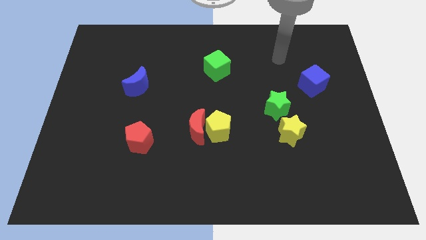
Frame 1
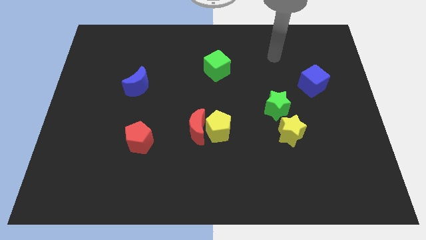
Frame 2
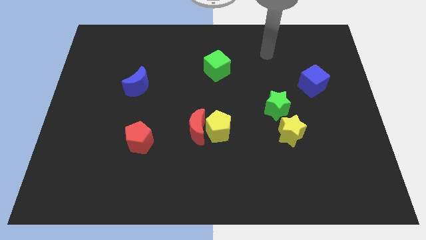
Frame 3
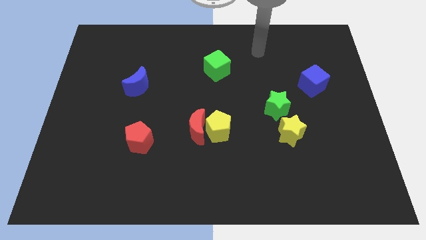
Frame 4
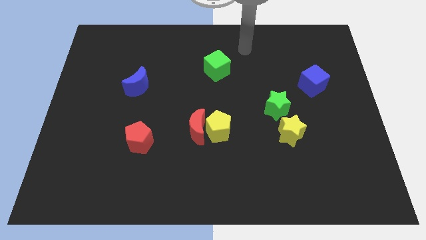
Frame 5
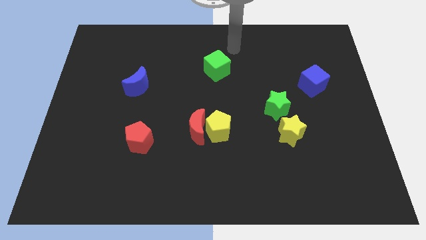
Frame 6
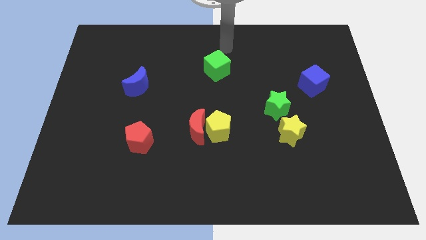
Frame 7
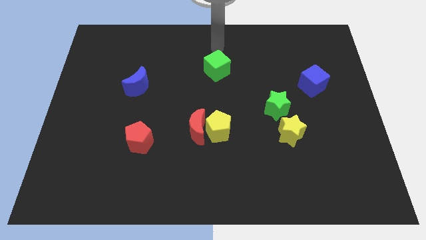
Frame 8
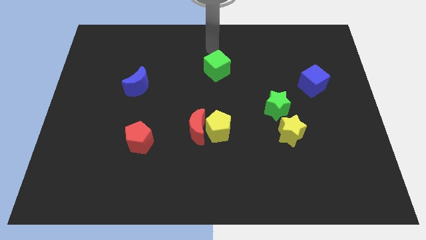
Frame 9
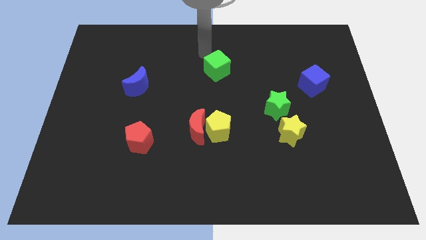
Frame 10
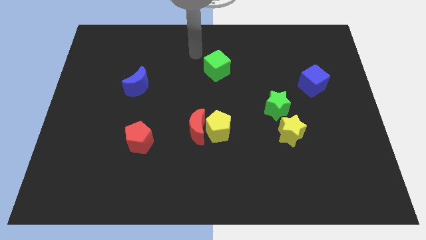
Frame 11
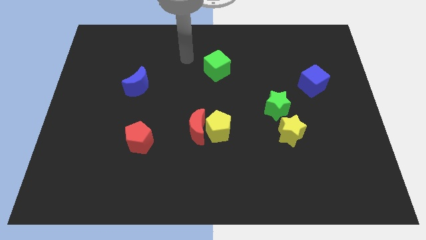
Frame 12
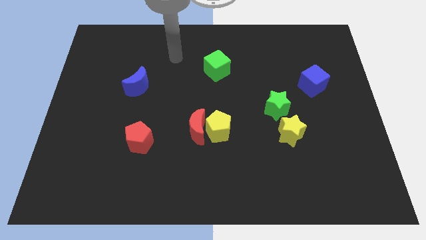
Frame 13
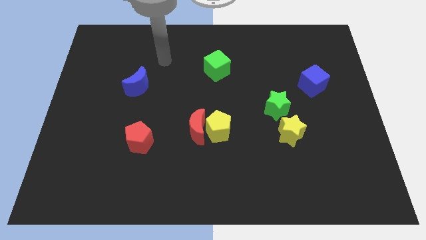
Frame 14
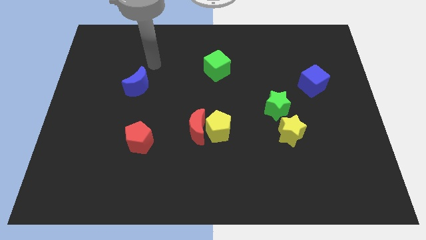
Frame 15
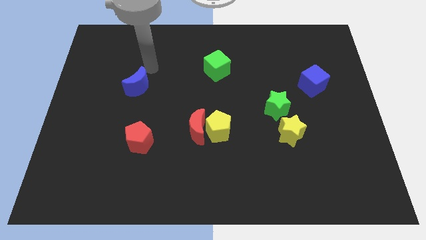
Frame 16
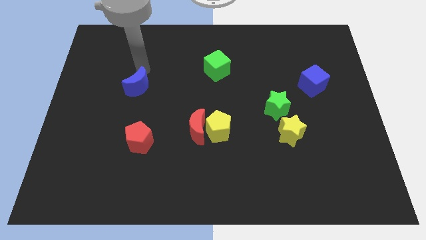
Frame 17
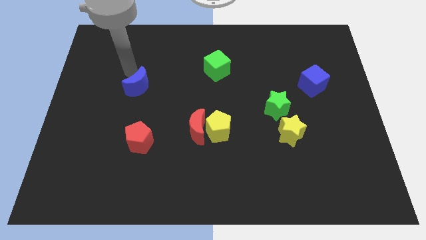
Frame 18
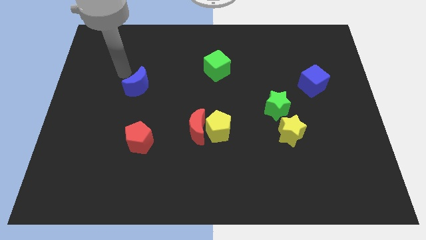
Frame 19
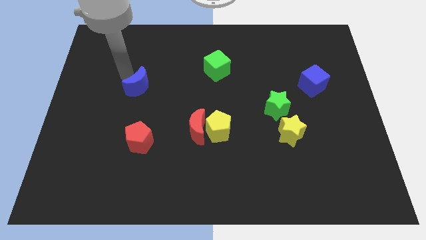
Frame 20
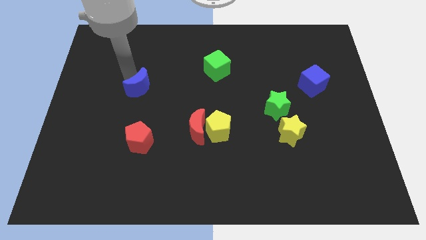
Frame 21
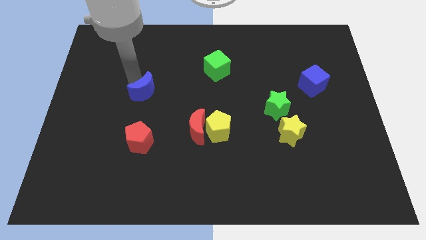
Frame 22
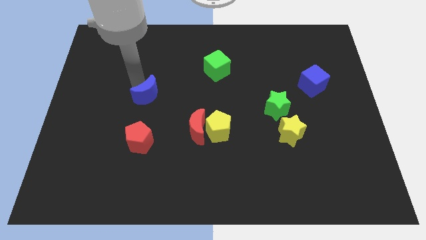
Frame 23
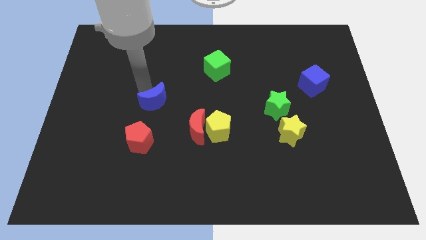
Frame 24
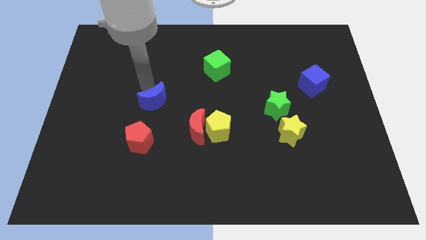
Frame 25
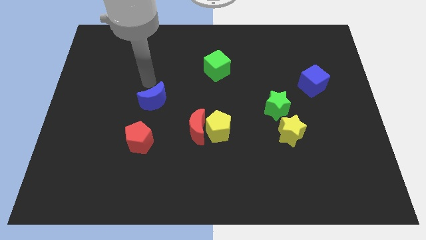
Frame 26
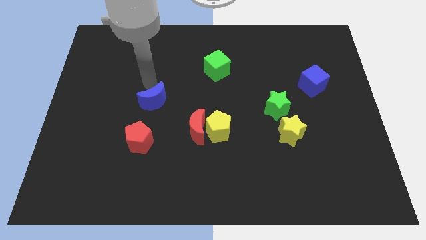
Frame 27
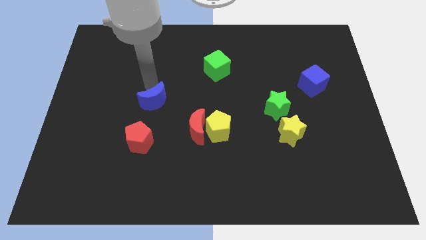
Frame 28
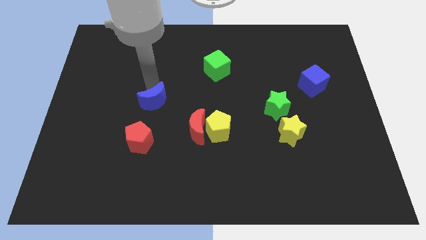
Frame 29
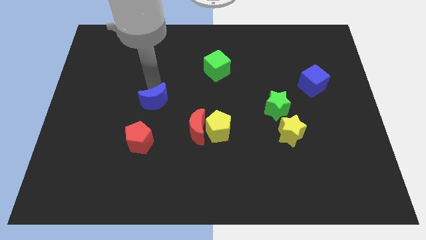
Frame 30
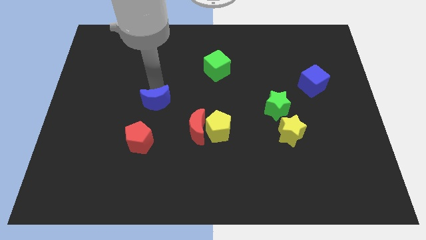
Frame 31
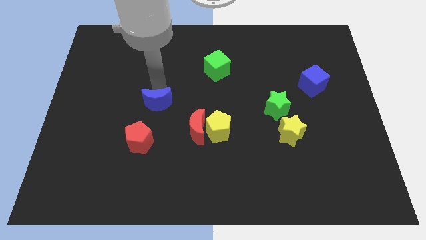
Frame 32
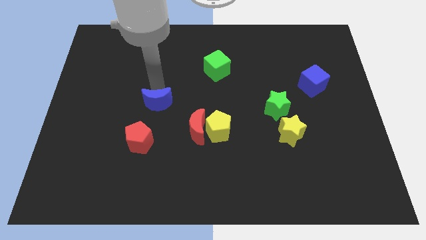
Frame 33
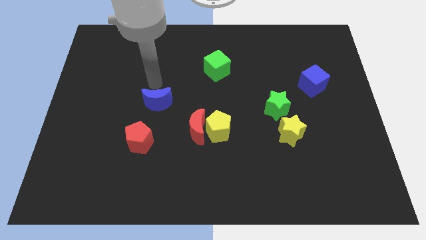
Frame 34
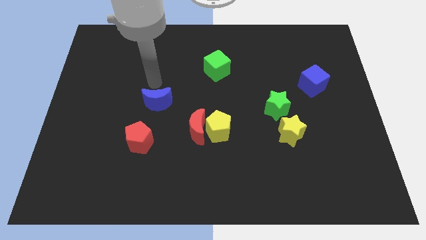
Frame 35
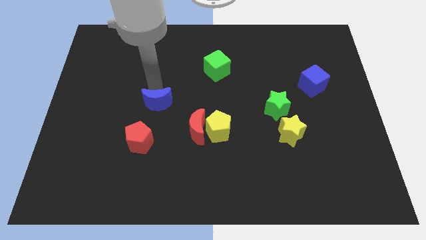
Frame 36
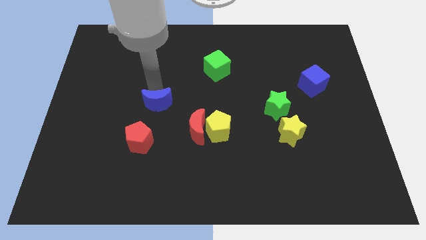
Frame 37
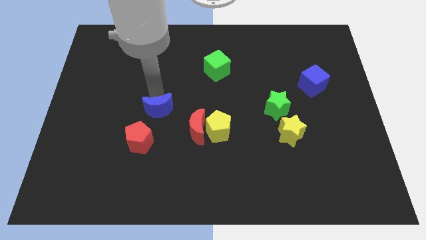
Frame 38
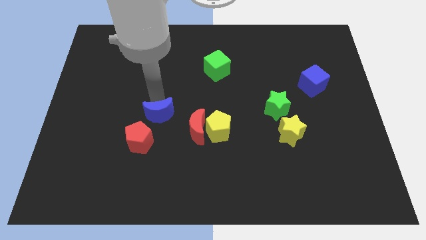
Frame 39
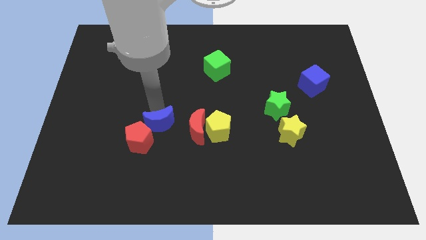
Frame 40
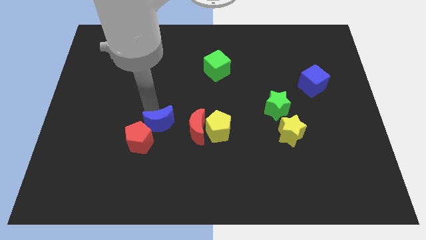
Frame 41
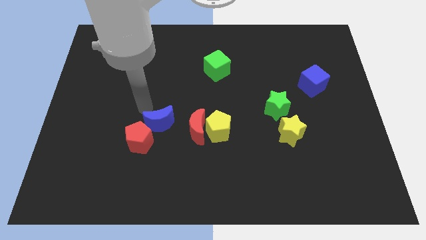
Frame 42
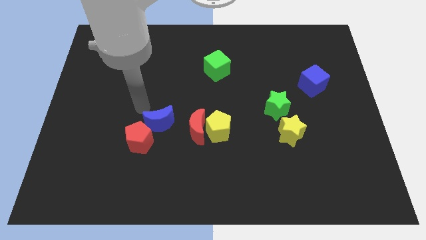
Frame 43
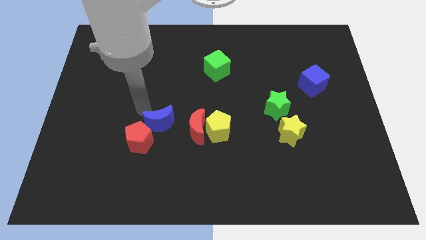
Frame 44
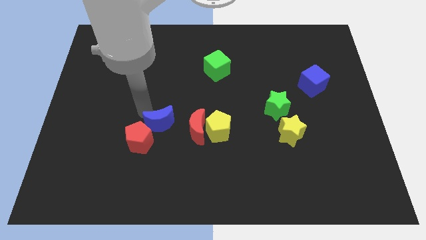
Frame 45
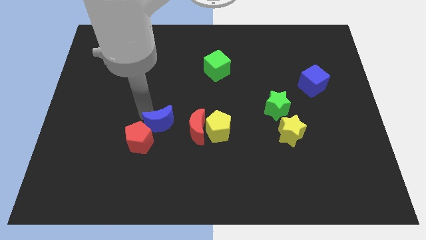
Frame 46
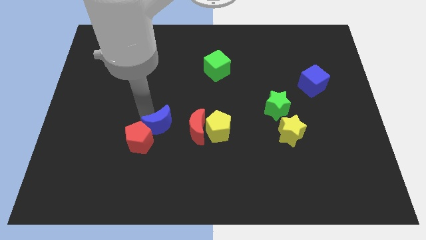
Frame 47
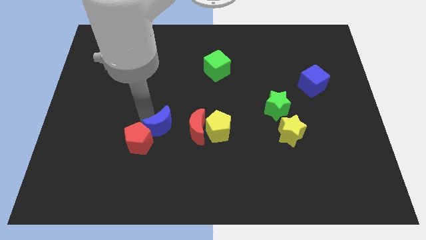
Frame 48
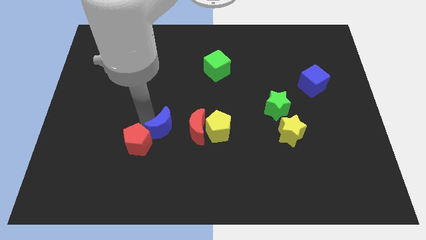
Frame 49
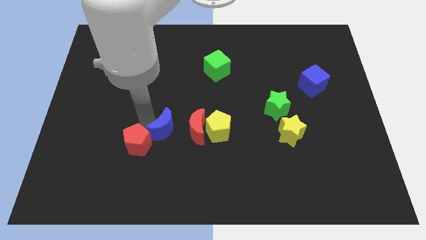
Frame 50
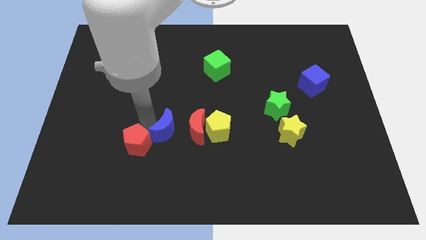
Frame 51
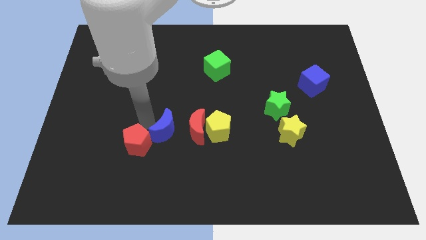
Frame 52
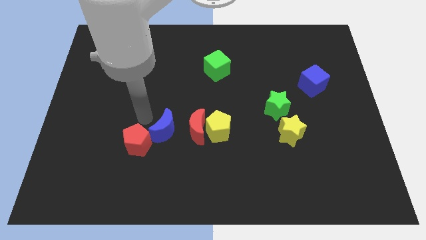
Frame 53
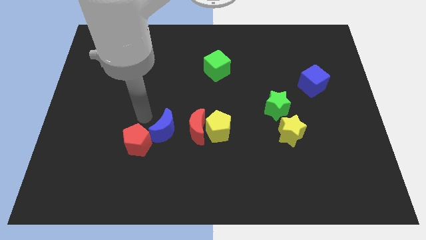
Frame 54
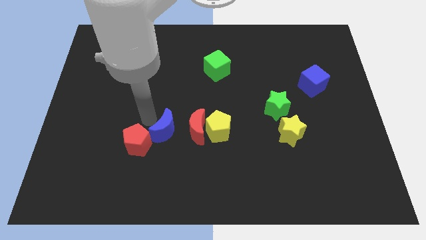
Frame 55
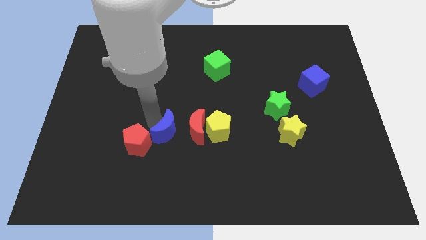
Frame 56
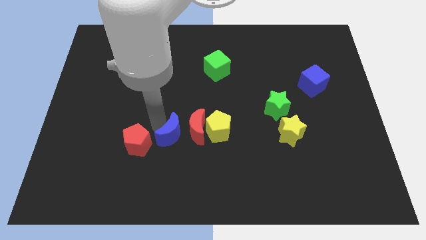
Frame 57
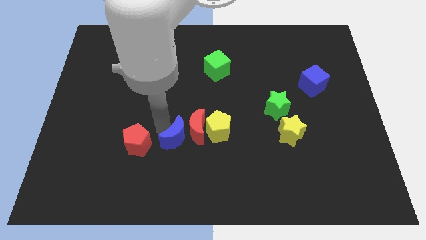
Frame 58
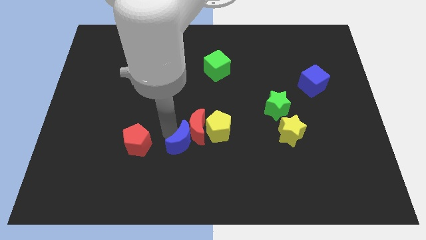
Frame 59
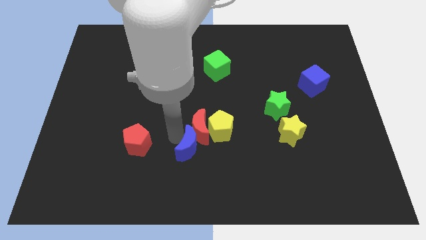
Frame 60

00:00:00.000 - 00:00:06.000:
slide the blue moon diagonally down and to the right

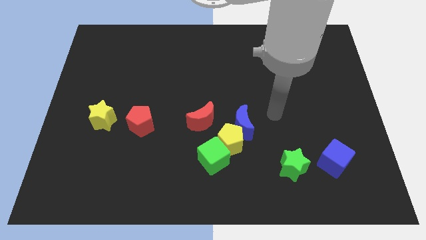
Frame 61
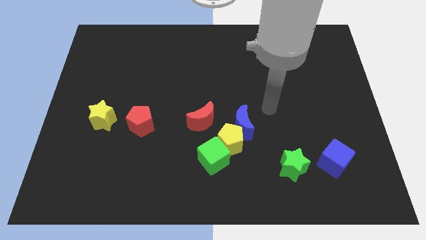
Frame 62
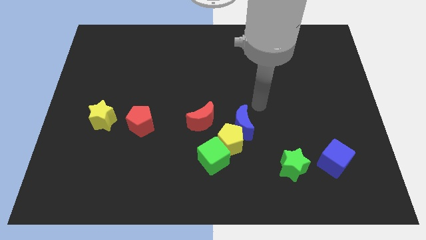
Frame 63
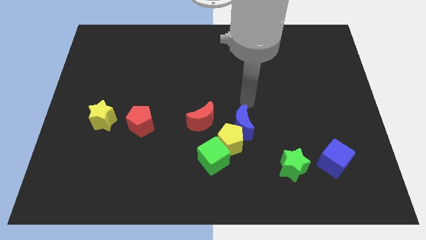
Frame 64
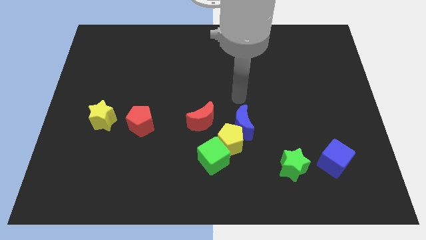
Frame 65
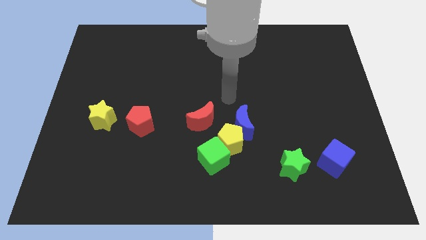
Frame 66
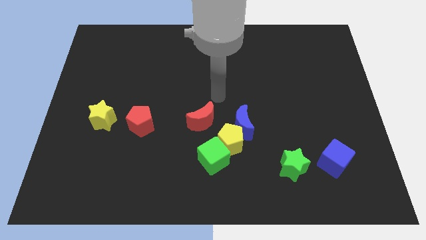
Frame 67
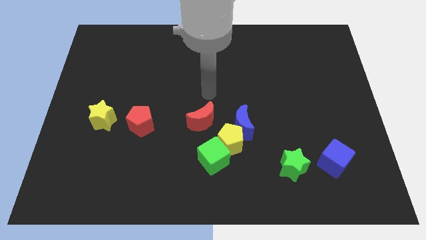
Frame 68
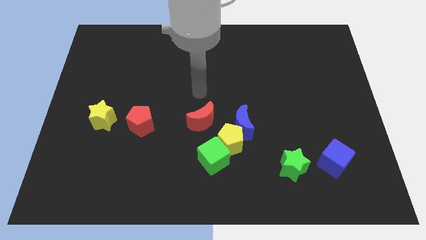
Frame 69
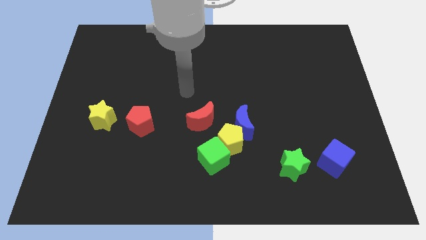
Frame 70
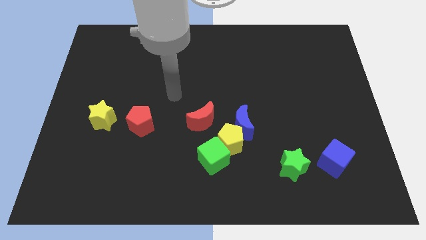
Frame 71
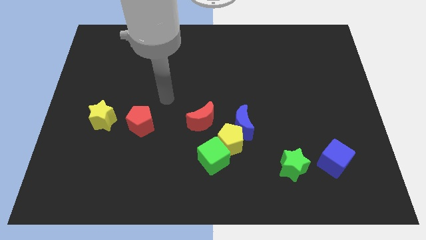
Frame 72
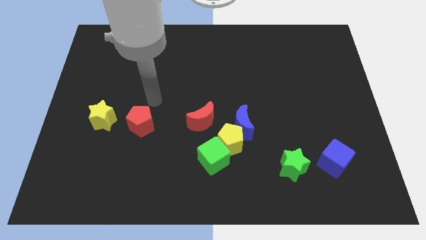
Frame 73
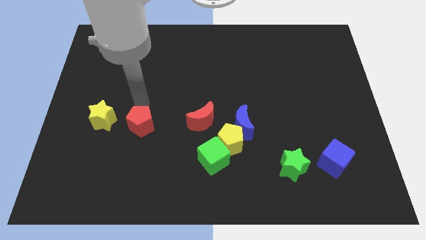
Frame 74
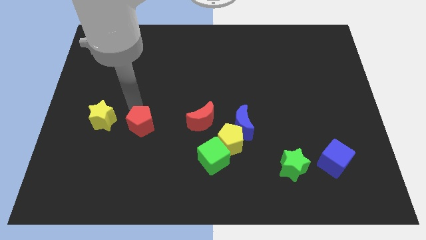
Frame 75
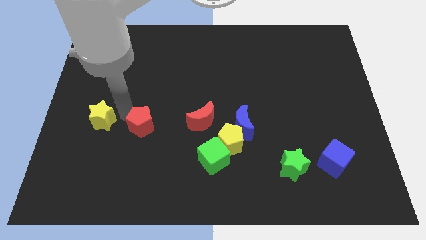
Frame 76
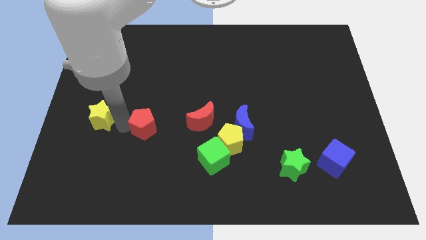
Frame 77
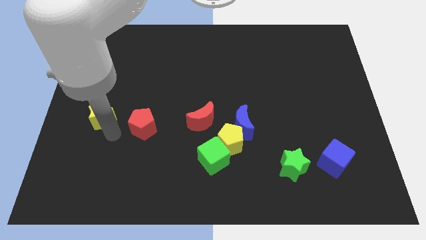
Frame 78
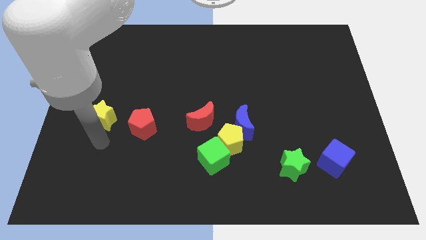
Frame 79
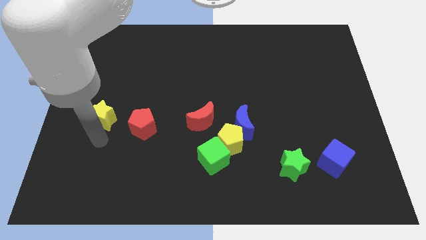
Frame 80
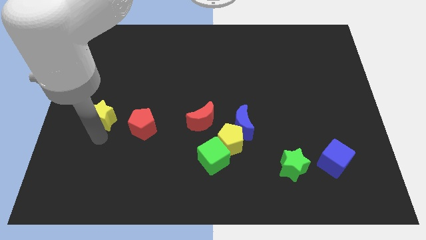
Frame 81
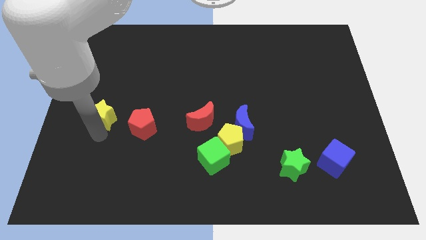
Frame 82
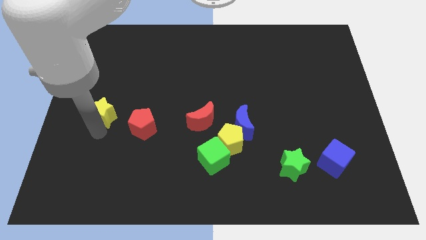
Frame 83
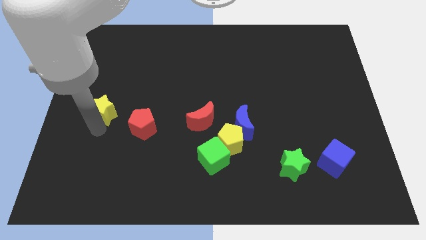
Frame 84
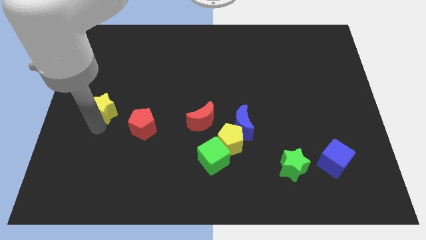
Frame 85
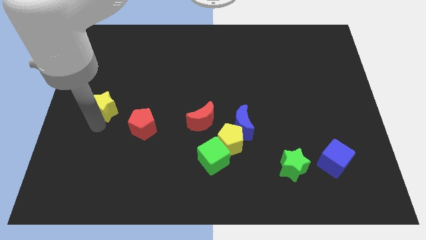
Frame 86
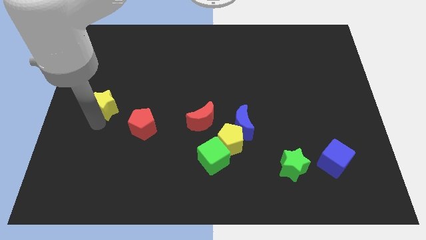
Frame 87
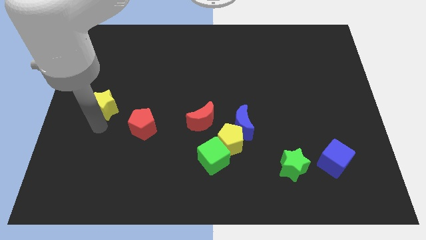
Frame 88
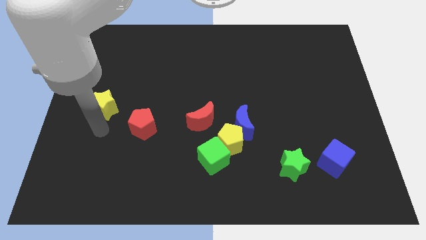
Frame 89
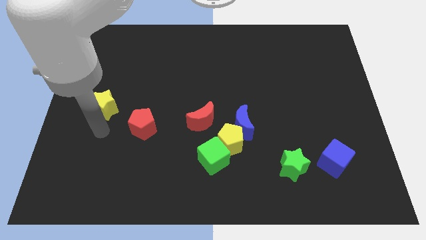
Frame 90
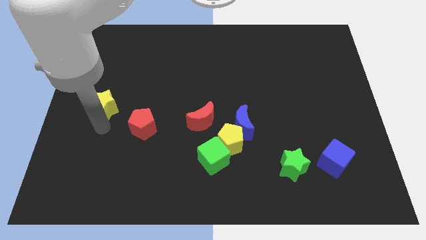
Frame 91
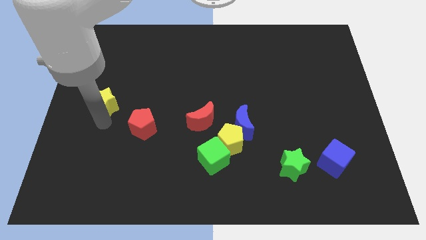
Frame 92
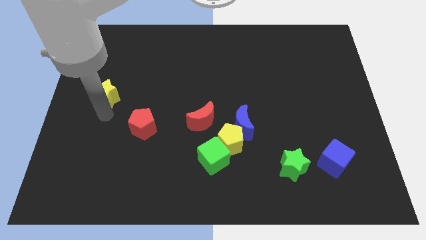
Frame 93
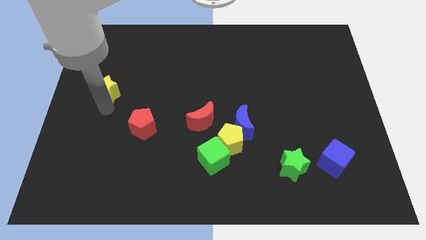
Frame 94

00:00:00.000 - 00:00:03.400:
slightly slide the yellow star up
